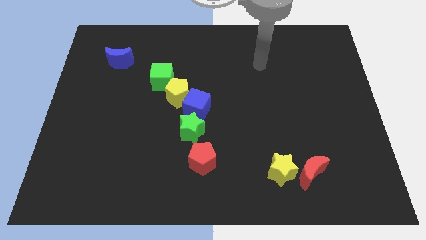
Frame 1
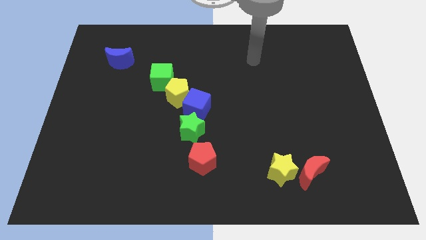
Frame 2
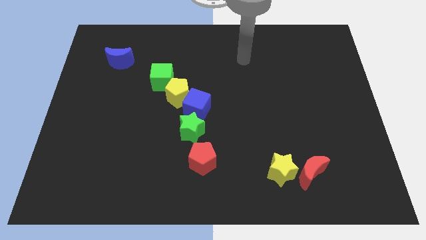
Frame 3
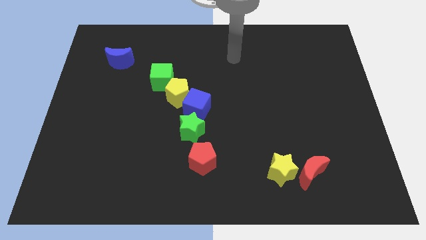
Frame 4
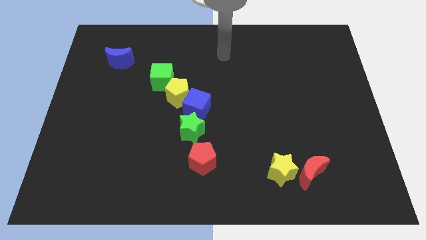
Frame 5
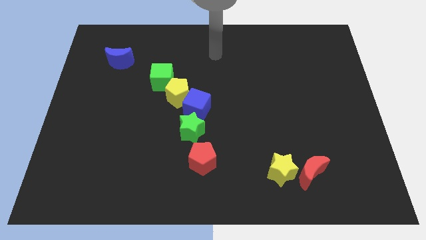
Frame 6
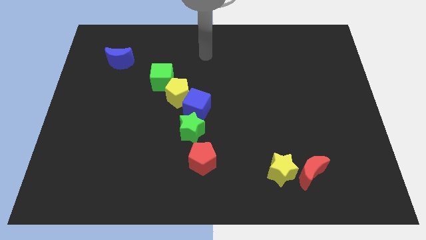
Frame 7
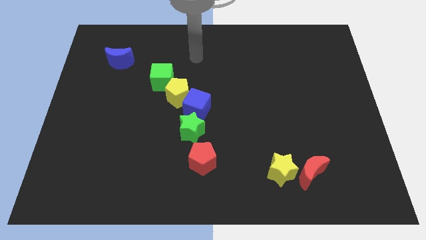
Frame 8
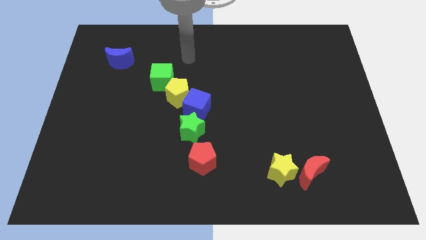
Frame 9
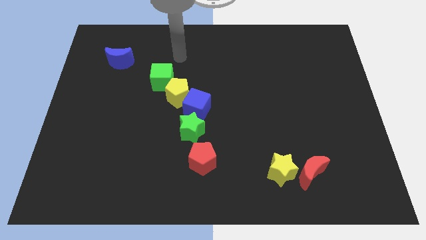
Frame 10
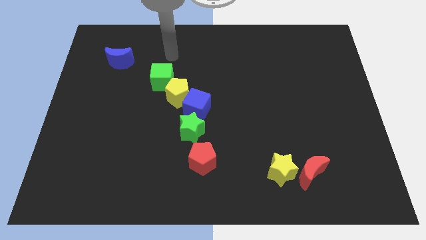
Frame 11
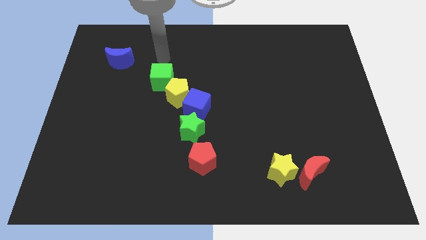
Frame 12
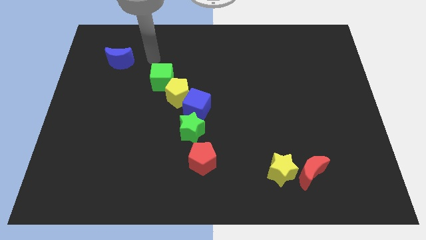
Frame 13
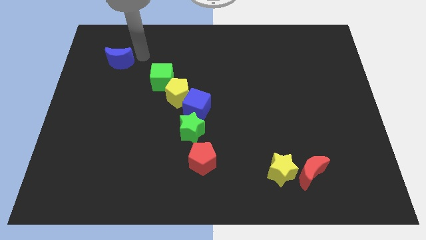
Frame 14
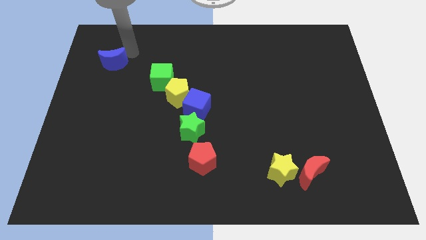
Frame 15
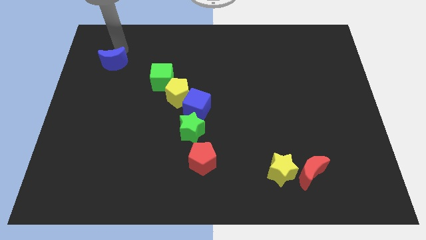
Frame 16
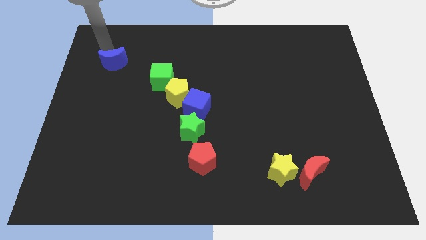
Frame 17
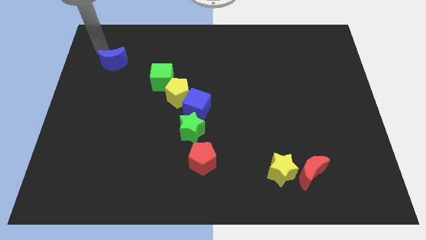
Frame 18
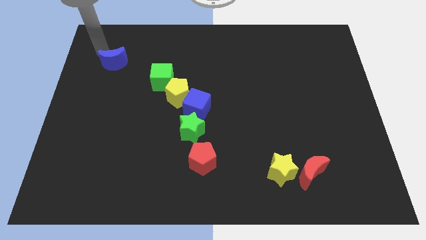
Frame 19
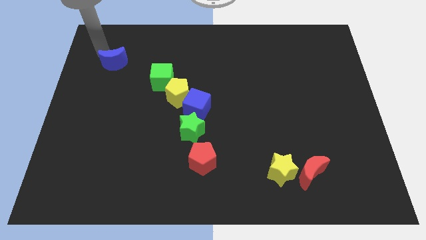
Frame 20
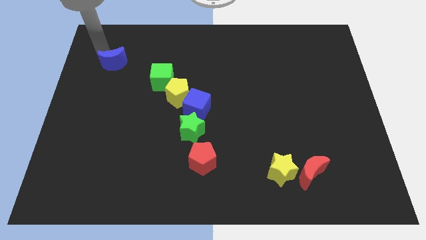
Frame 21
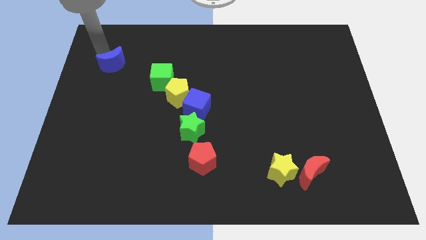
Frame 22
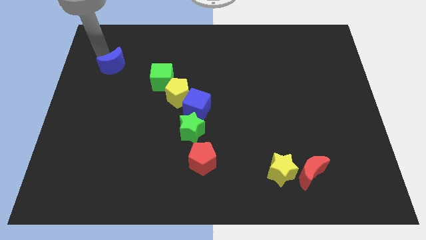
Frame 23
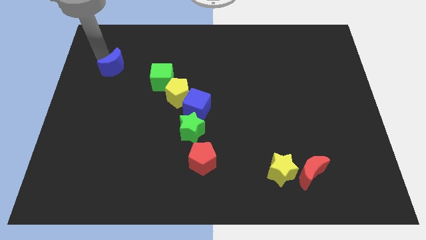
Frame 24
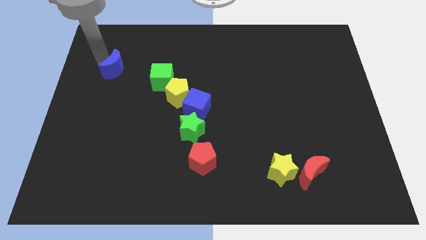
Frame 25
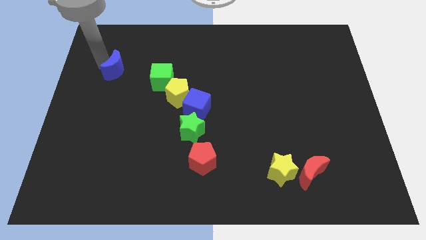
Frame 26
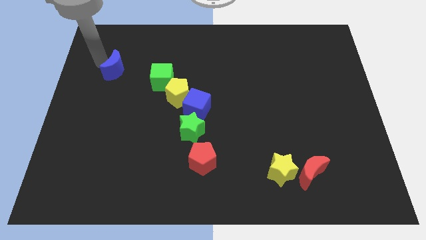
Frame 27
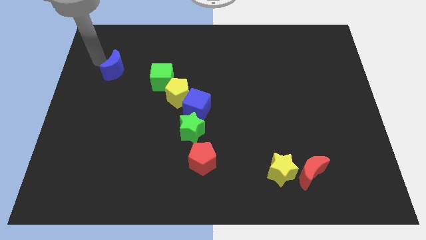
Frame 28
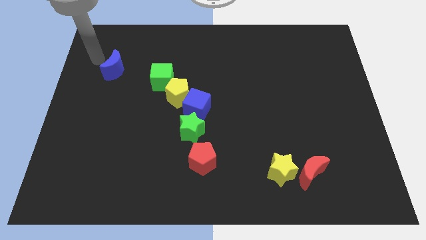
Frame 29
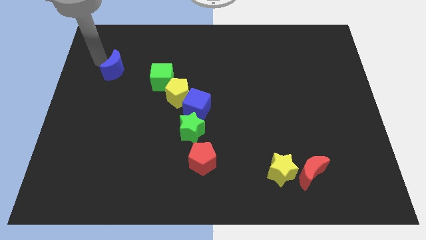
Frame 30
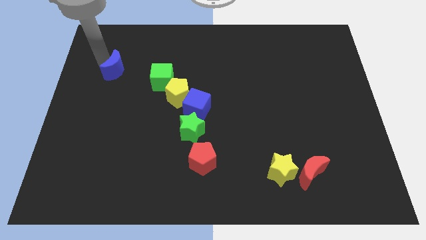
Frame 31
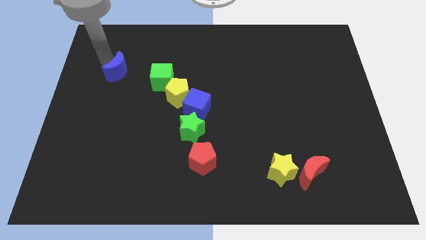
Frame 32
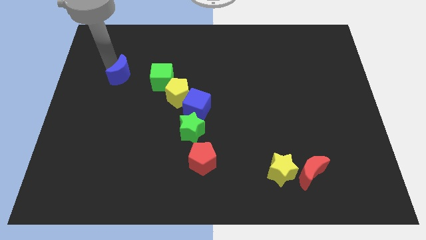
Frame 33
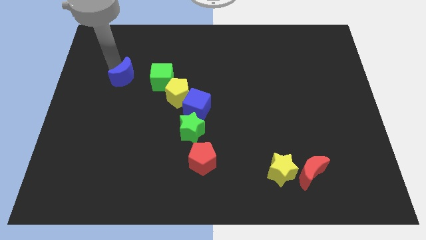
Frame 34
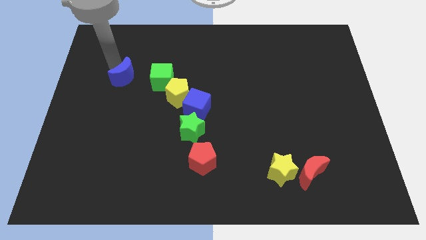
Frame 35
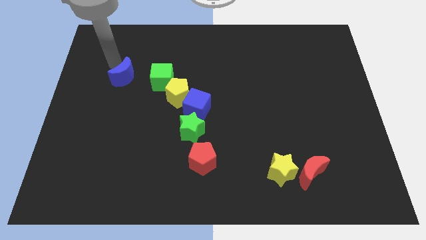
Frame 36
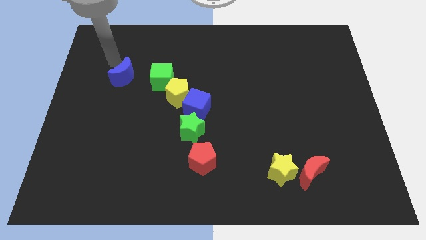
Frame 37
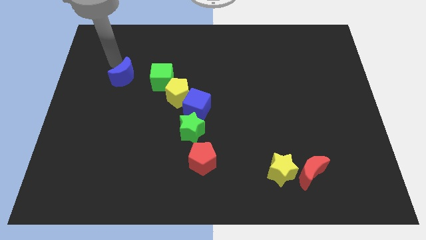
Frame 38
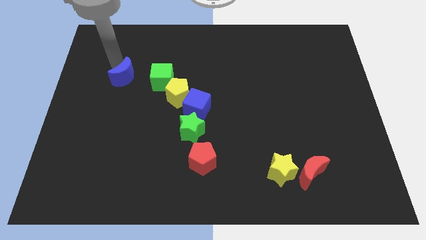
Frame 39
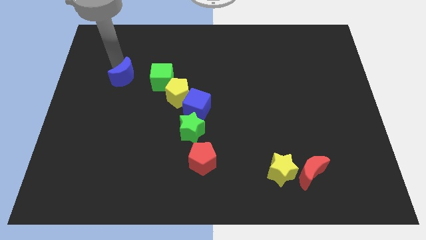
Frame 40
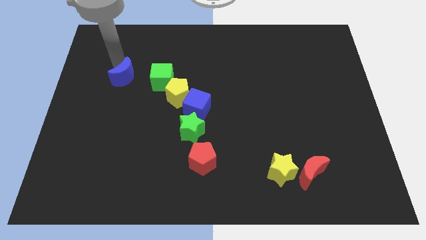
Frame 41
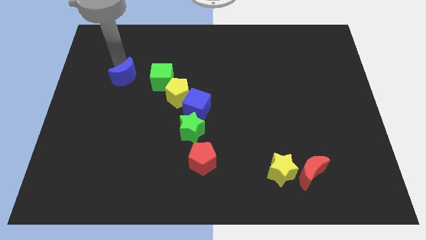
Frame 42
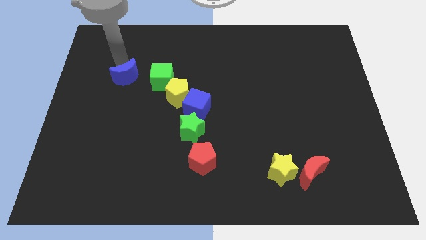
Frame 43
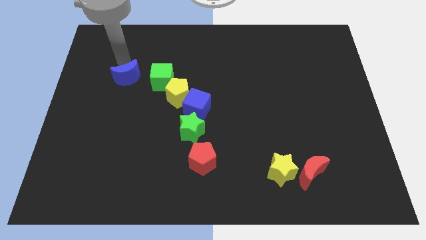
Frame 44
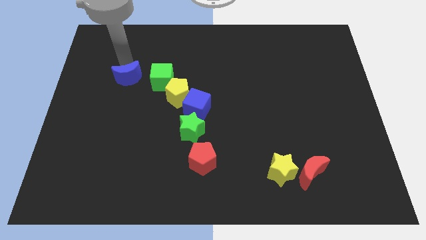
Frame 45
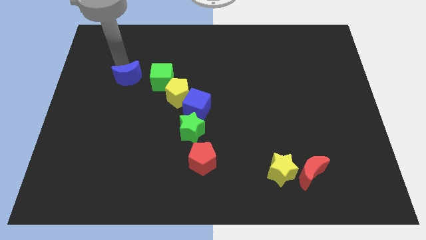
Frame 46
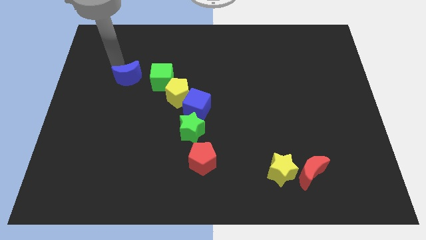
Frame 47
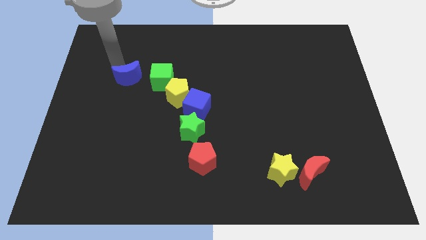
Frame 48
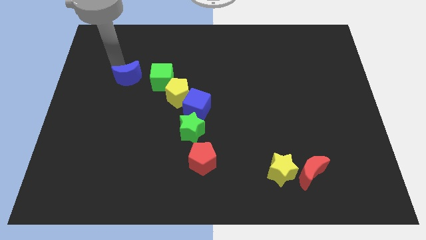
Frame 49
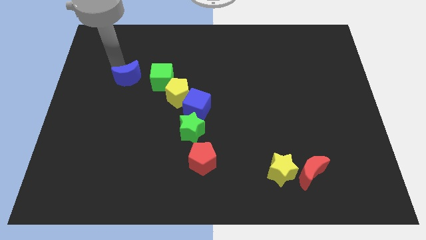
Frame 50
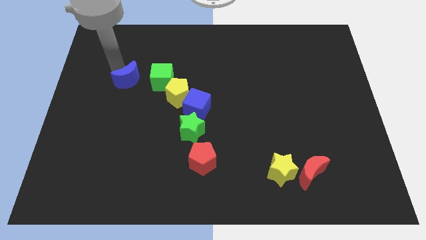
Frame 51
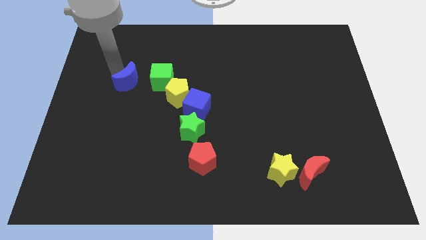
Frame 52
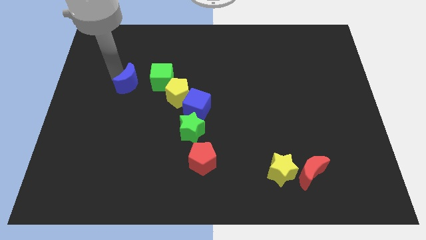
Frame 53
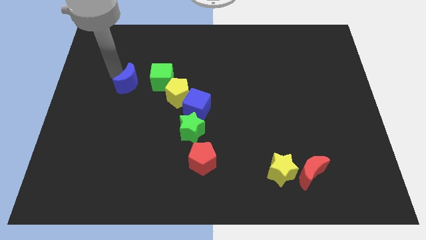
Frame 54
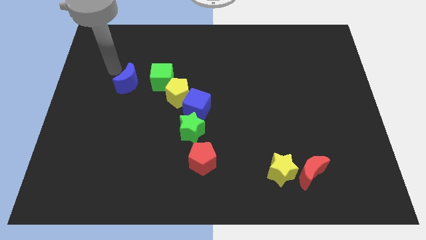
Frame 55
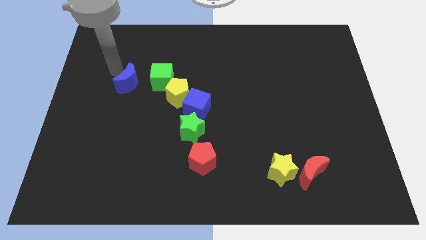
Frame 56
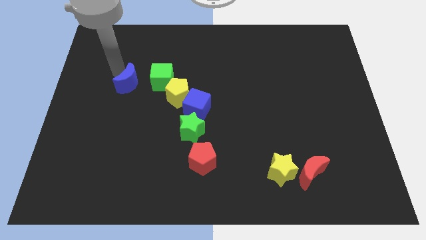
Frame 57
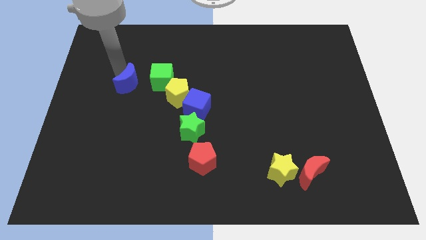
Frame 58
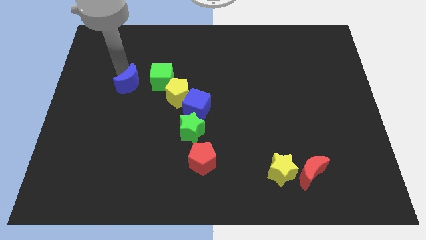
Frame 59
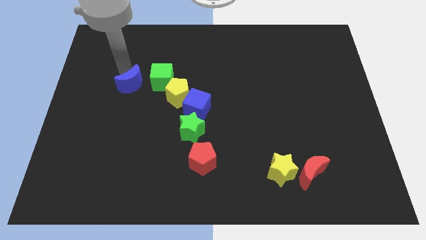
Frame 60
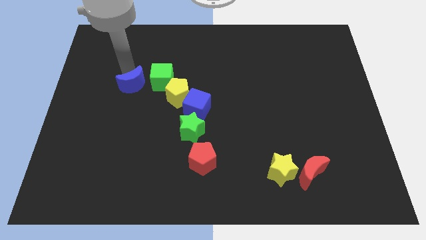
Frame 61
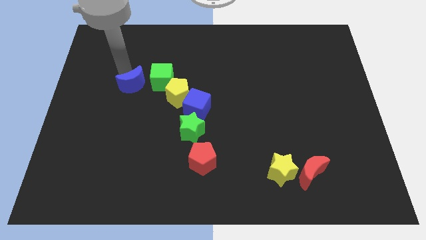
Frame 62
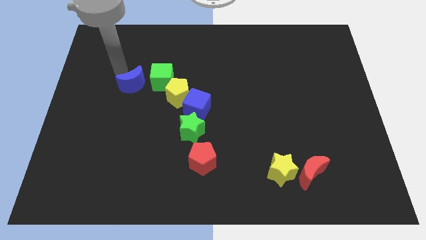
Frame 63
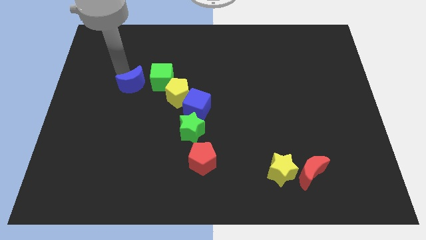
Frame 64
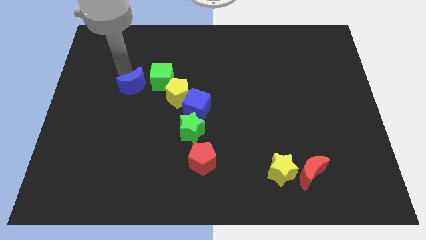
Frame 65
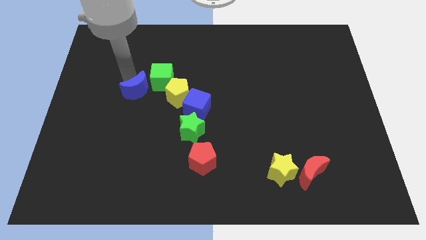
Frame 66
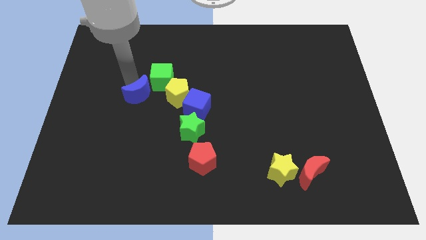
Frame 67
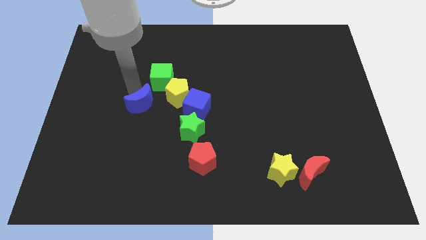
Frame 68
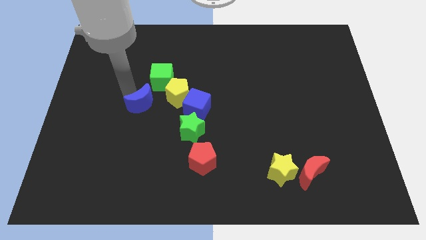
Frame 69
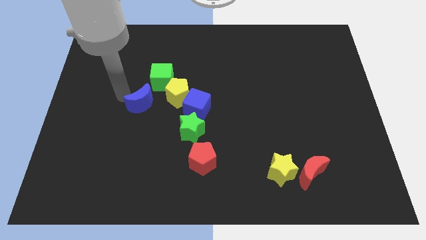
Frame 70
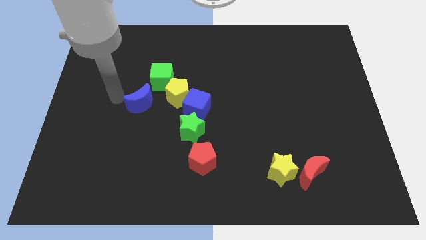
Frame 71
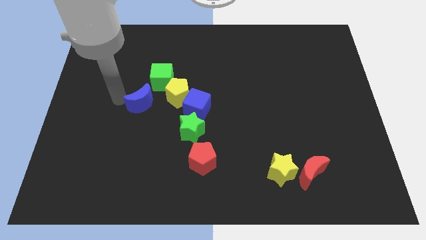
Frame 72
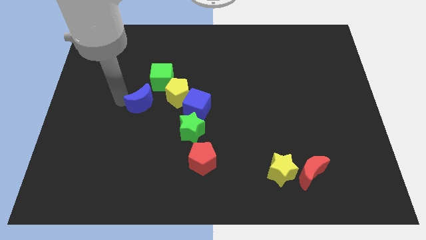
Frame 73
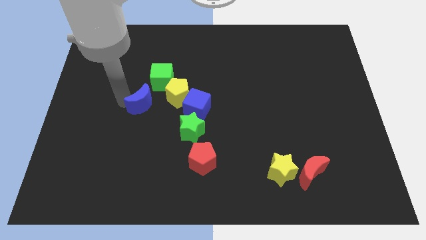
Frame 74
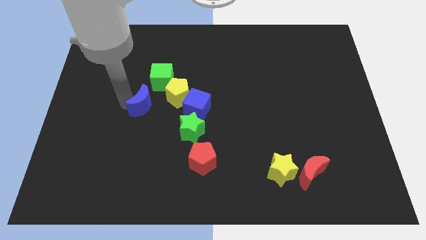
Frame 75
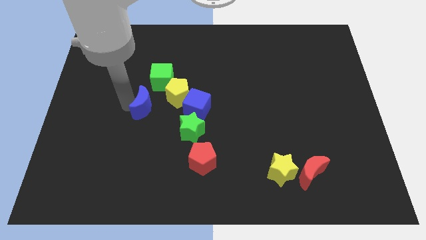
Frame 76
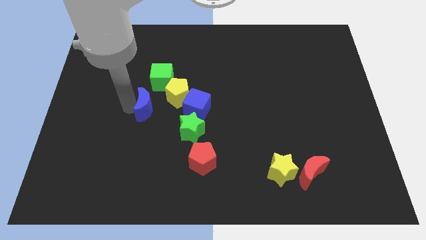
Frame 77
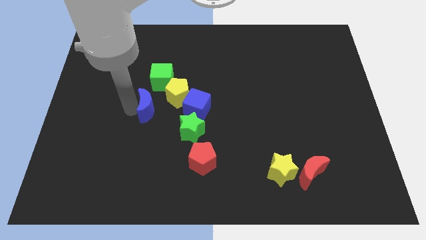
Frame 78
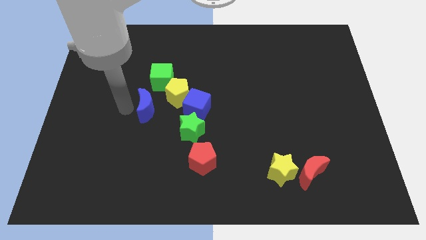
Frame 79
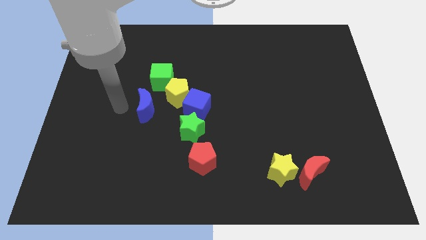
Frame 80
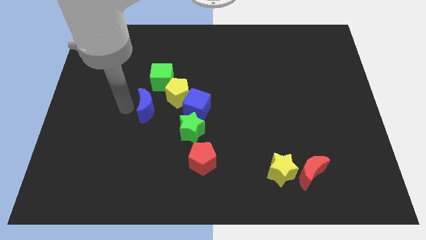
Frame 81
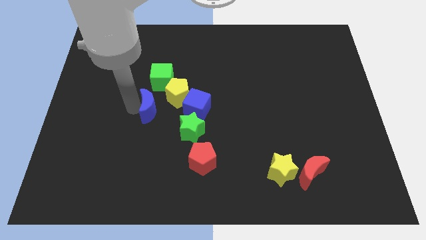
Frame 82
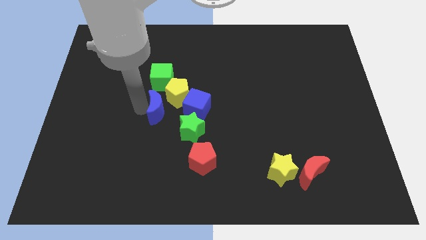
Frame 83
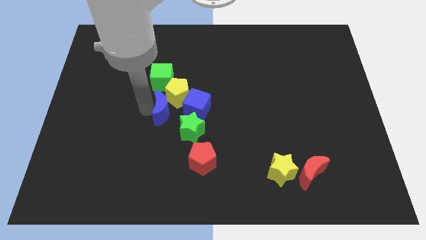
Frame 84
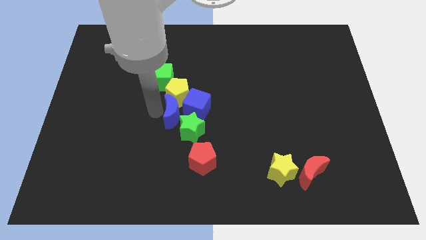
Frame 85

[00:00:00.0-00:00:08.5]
push the blue moon towards the blue cube
